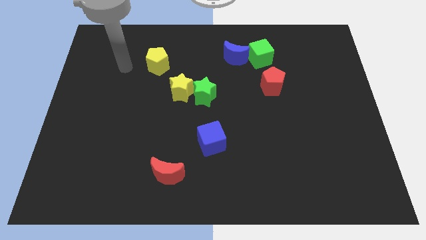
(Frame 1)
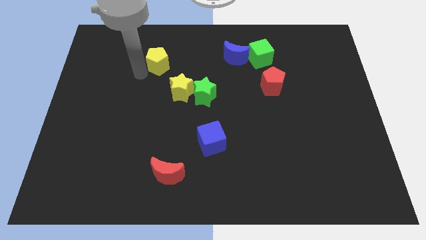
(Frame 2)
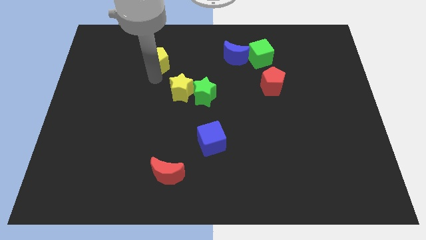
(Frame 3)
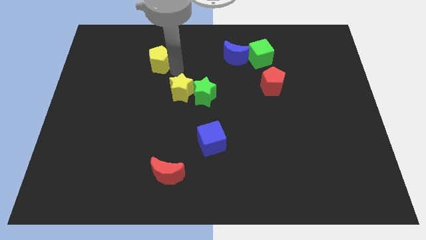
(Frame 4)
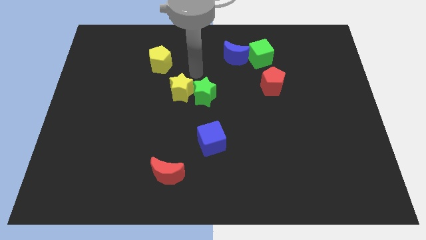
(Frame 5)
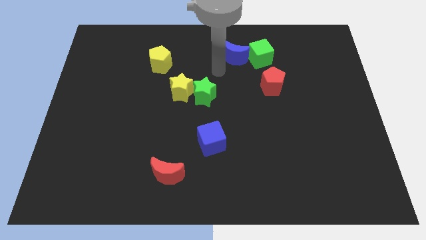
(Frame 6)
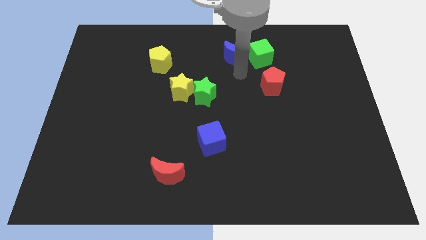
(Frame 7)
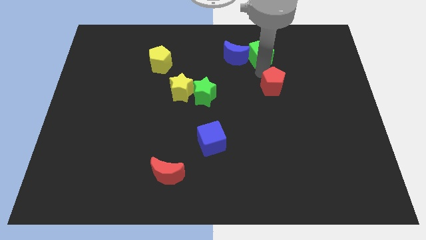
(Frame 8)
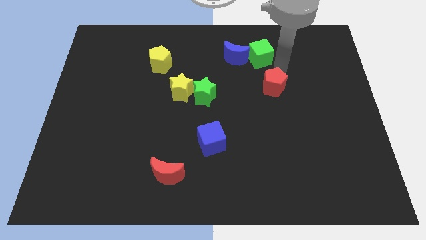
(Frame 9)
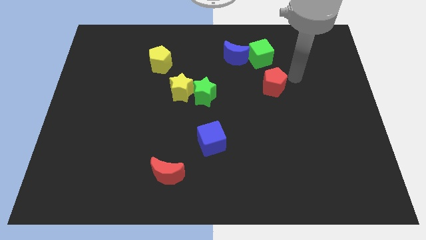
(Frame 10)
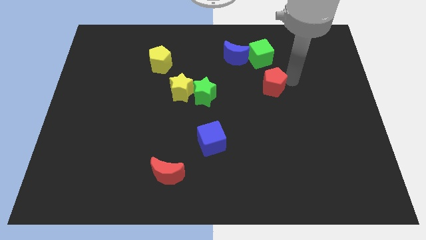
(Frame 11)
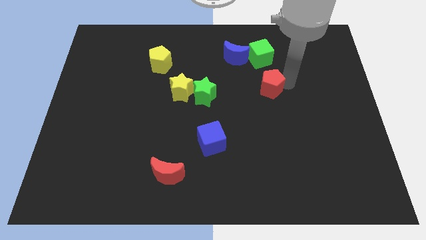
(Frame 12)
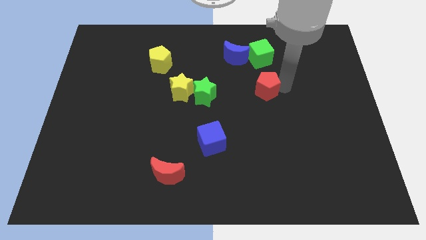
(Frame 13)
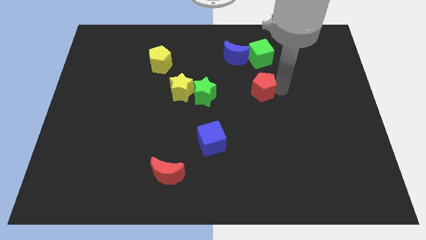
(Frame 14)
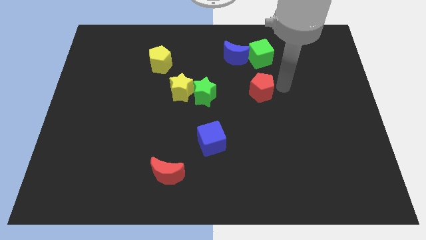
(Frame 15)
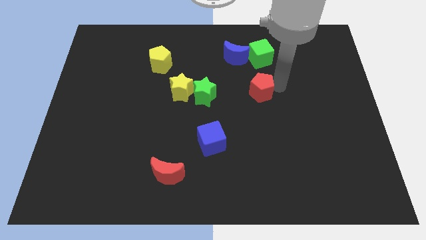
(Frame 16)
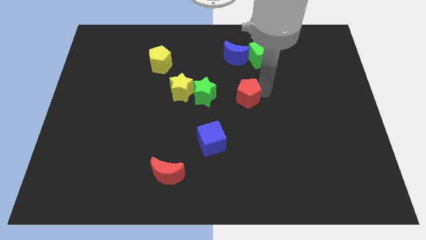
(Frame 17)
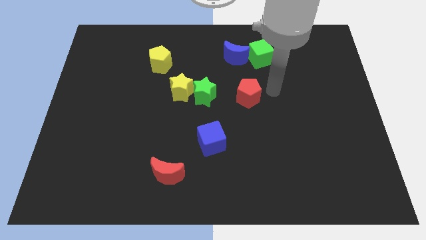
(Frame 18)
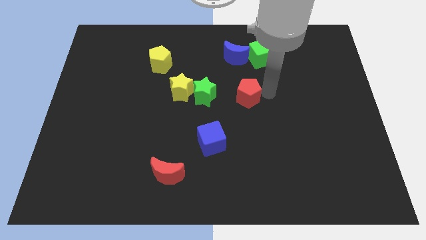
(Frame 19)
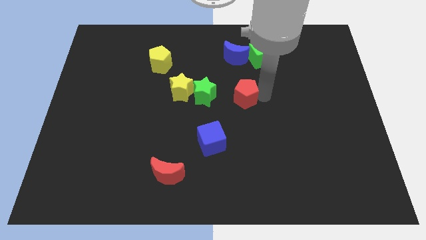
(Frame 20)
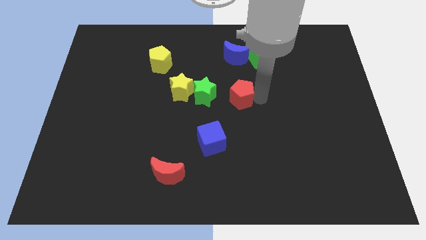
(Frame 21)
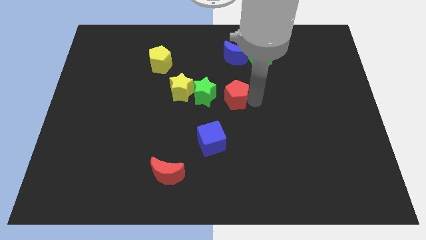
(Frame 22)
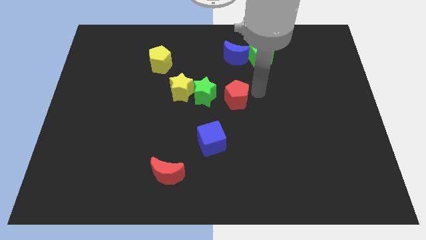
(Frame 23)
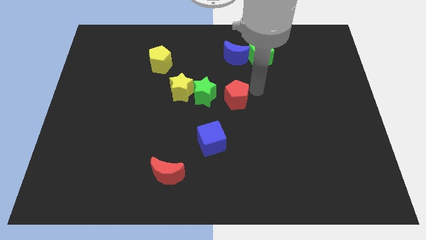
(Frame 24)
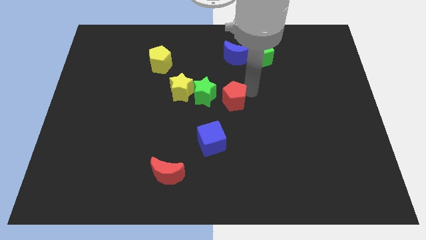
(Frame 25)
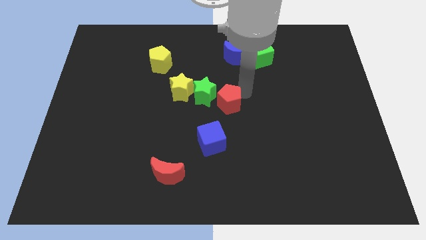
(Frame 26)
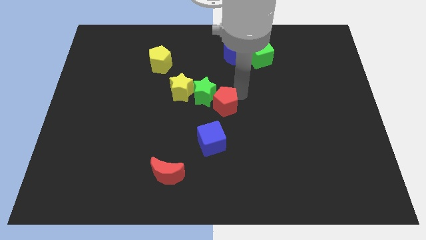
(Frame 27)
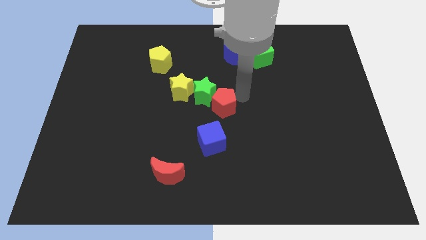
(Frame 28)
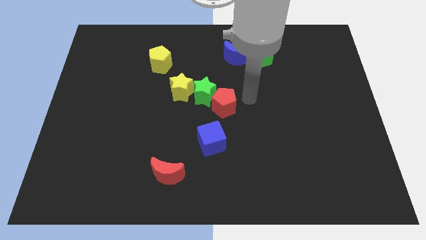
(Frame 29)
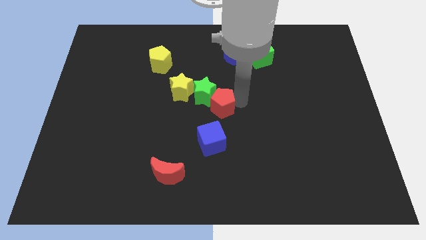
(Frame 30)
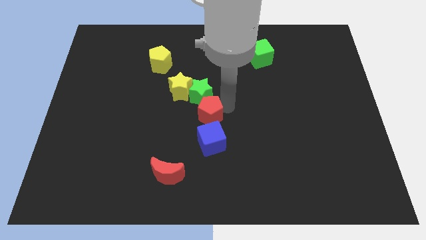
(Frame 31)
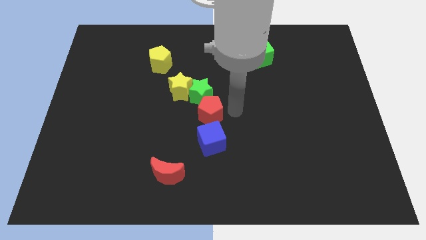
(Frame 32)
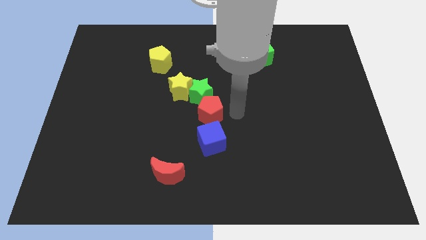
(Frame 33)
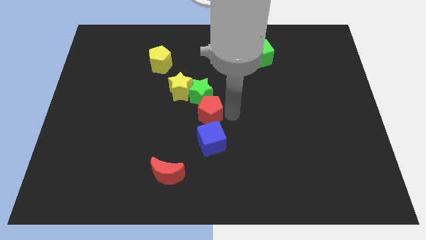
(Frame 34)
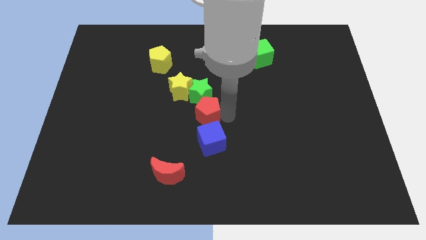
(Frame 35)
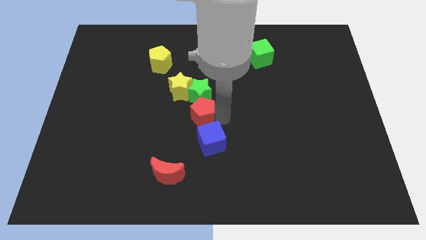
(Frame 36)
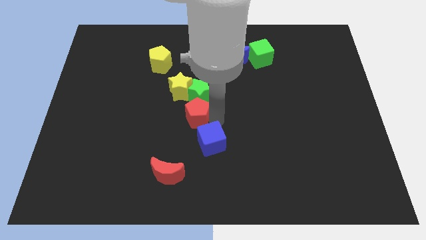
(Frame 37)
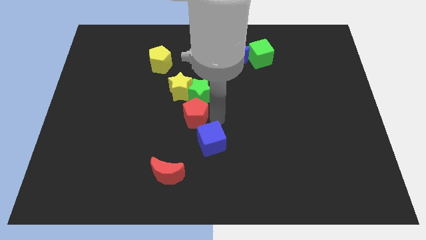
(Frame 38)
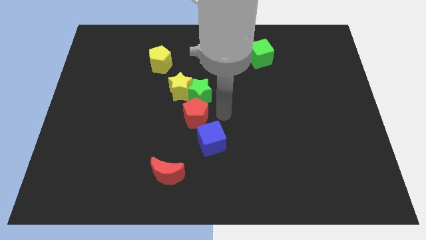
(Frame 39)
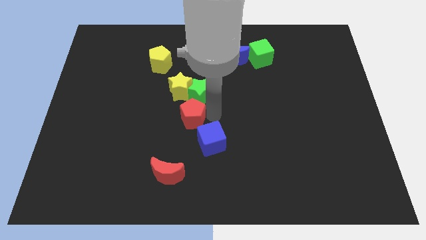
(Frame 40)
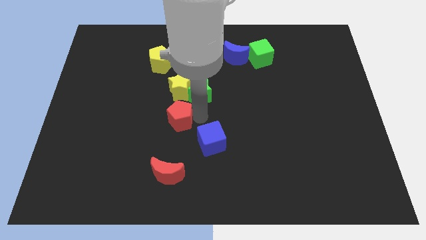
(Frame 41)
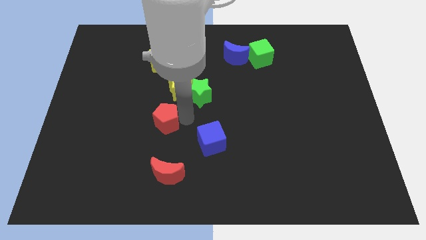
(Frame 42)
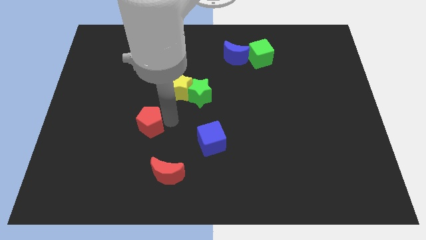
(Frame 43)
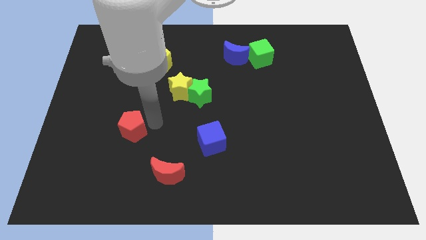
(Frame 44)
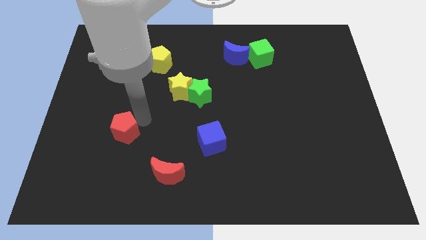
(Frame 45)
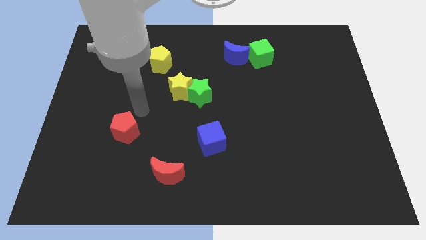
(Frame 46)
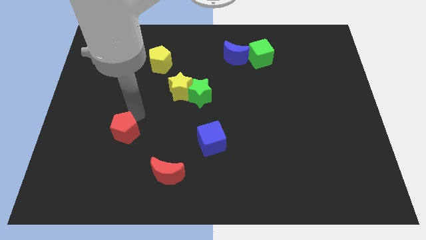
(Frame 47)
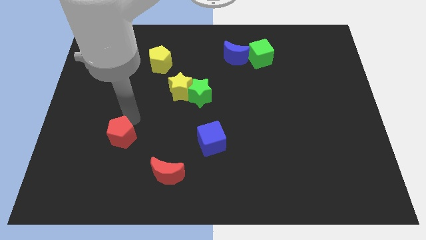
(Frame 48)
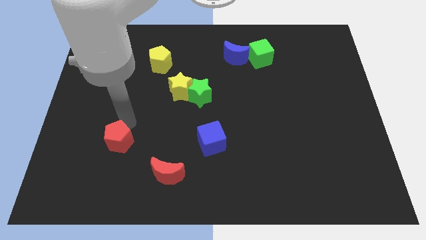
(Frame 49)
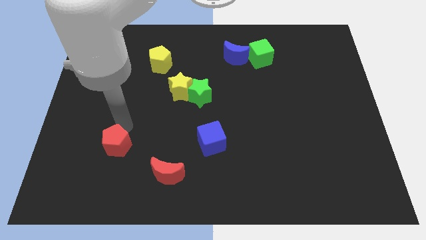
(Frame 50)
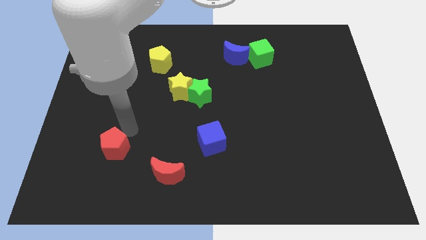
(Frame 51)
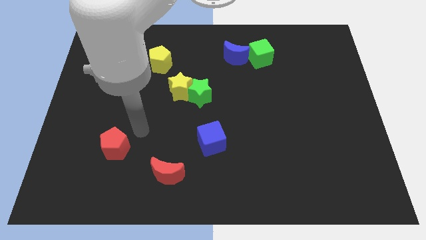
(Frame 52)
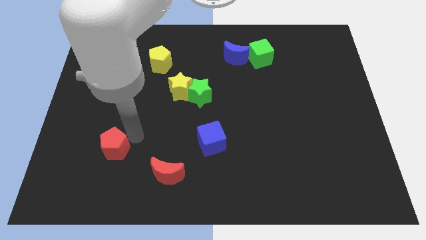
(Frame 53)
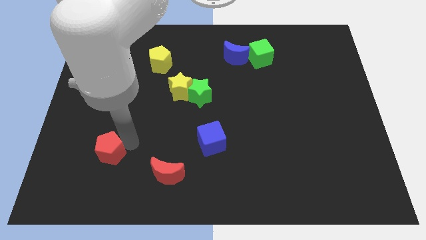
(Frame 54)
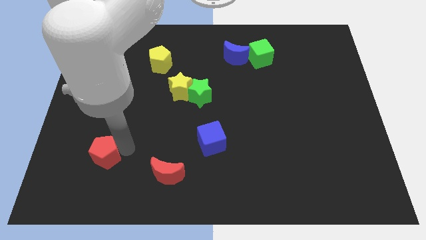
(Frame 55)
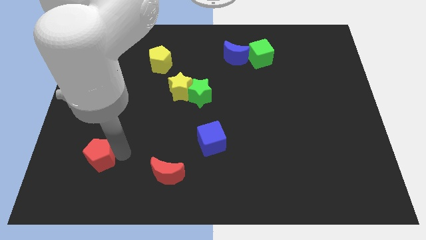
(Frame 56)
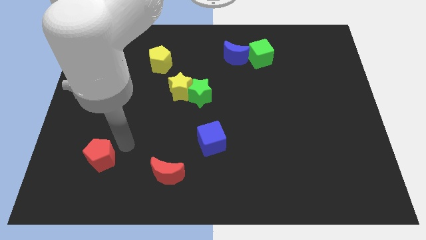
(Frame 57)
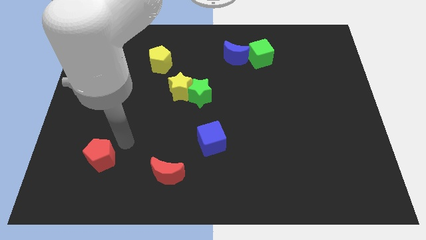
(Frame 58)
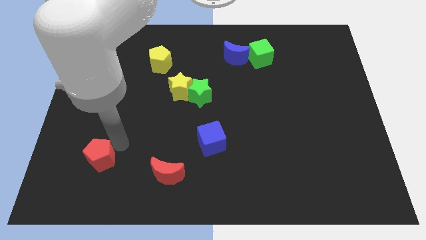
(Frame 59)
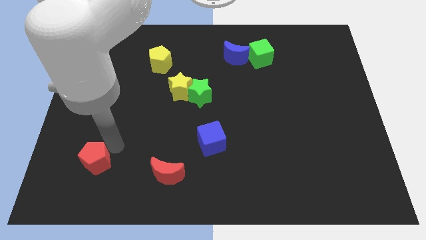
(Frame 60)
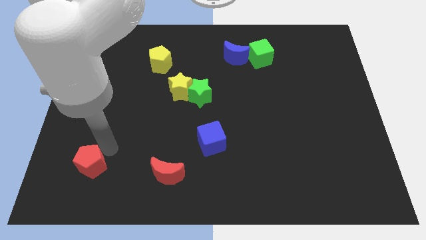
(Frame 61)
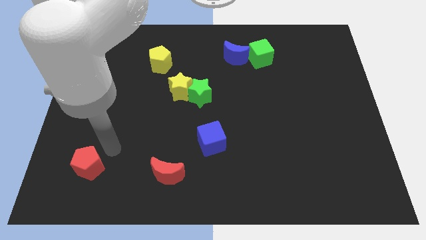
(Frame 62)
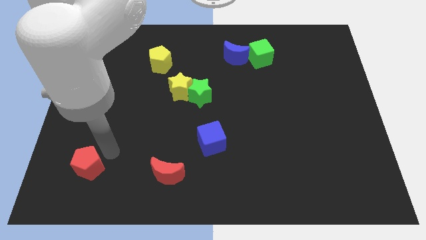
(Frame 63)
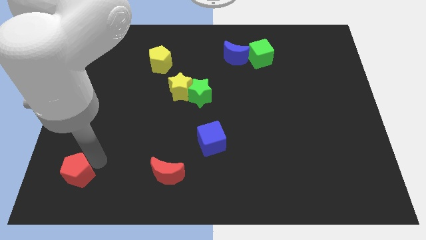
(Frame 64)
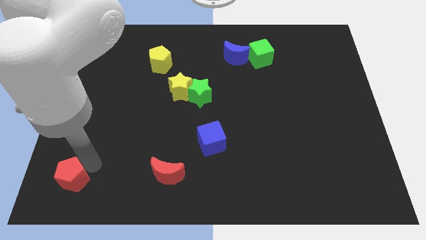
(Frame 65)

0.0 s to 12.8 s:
move the red pentagon to the bottom left of the board
